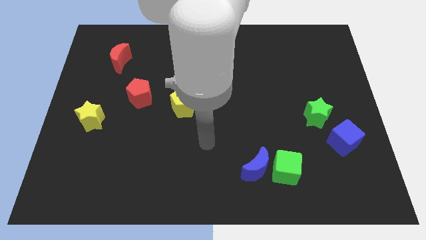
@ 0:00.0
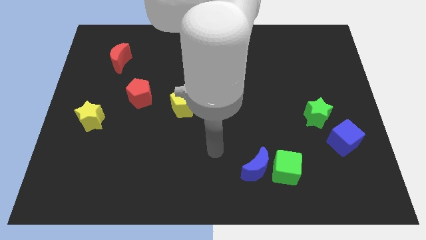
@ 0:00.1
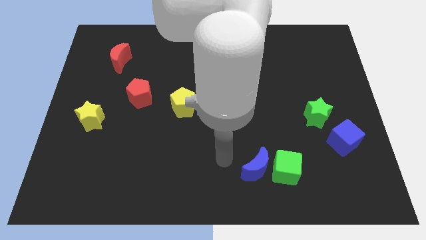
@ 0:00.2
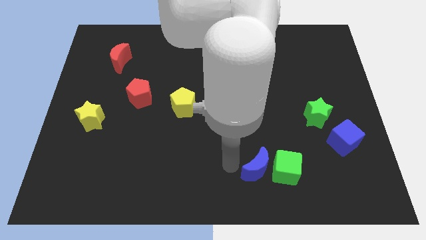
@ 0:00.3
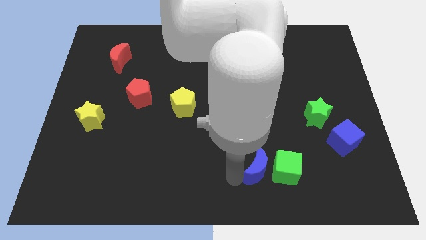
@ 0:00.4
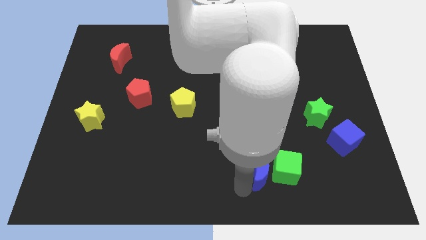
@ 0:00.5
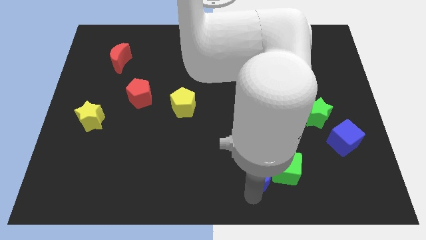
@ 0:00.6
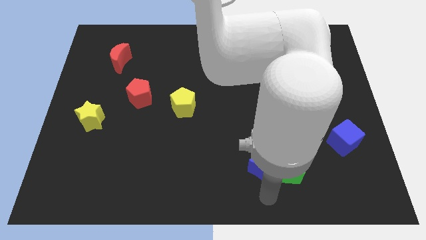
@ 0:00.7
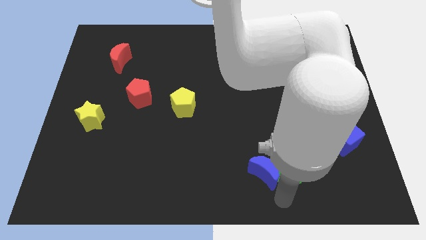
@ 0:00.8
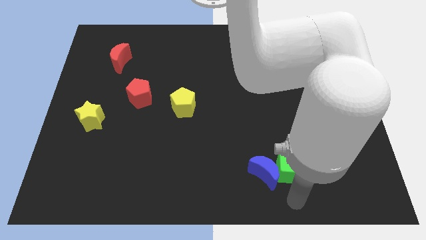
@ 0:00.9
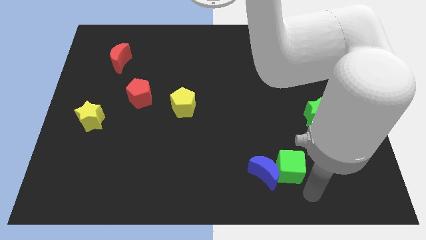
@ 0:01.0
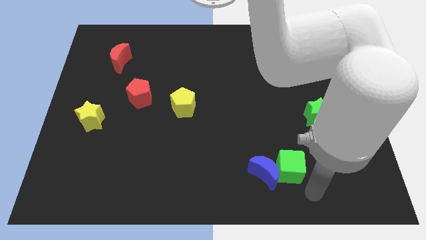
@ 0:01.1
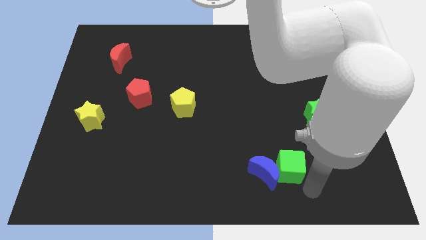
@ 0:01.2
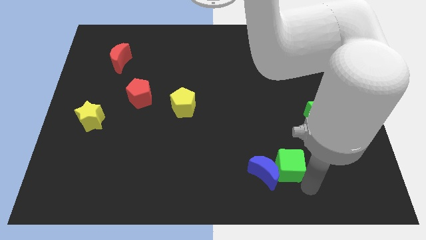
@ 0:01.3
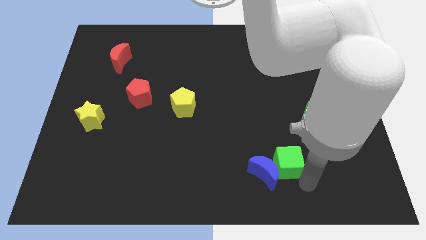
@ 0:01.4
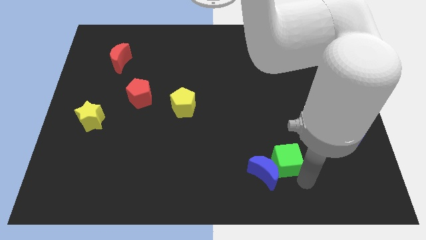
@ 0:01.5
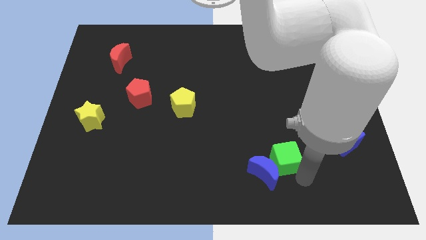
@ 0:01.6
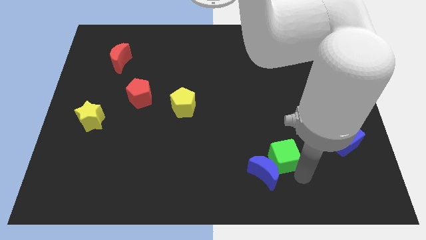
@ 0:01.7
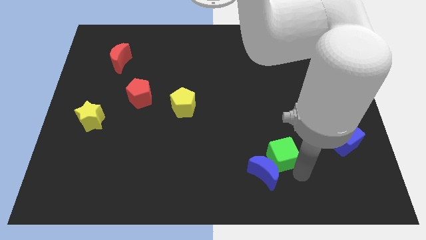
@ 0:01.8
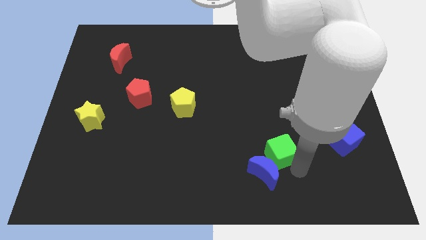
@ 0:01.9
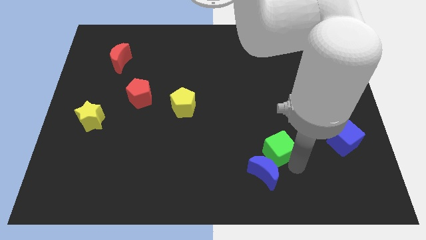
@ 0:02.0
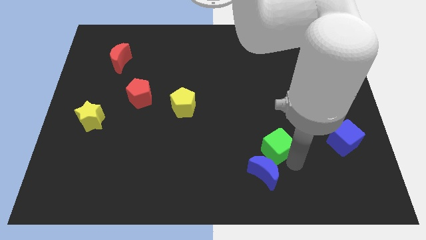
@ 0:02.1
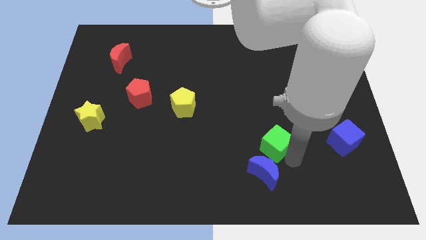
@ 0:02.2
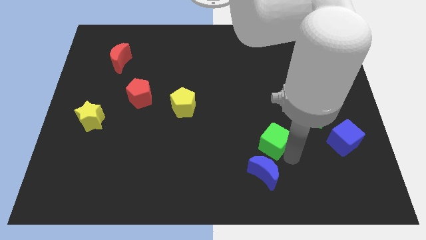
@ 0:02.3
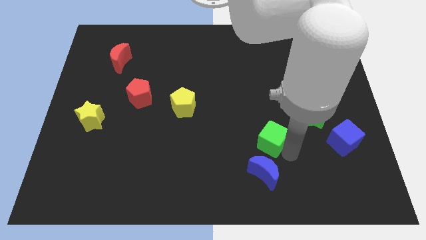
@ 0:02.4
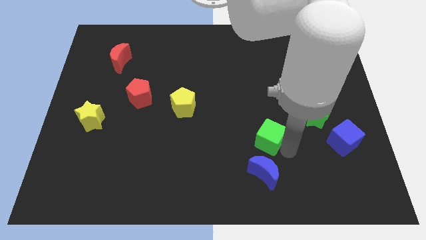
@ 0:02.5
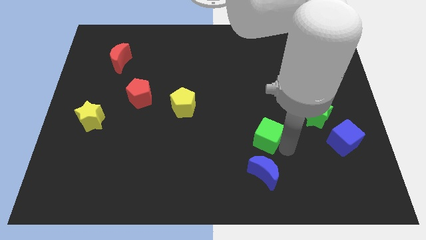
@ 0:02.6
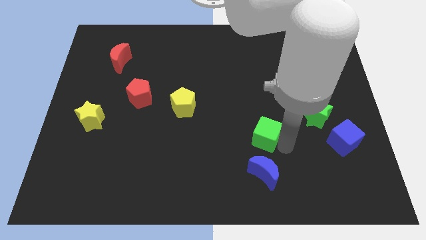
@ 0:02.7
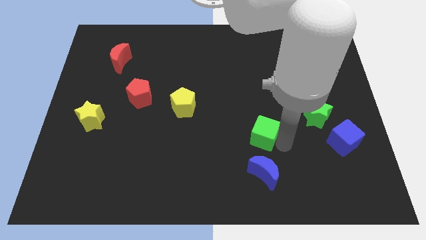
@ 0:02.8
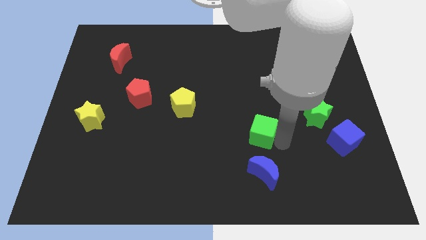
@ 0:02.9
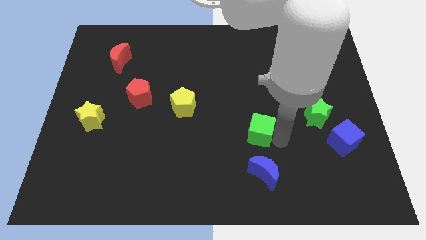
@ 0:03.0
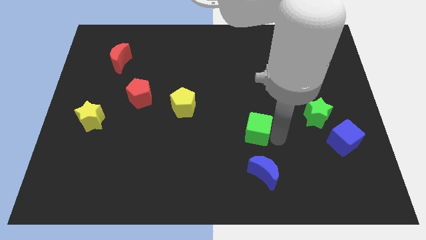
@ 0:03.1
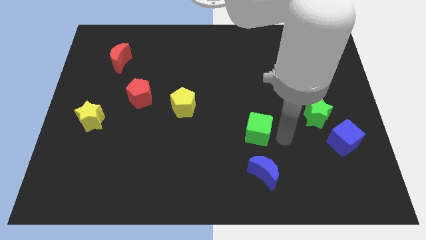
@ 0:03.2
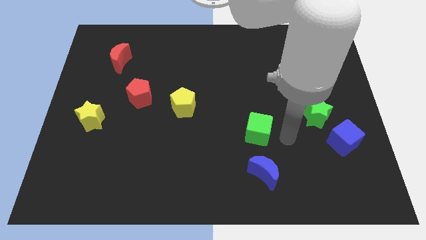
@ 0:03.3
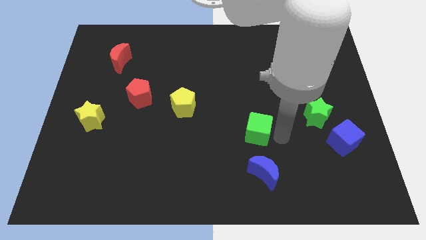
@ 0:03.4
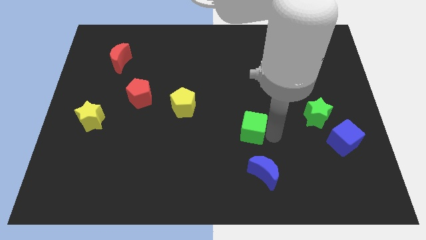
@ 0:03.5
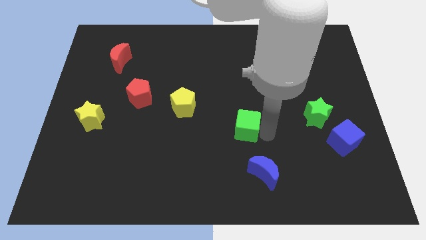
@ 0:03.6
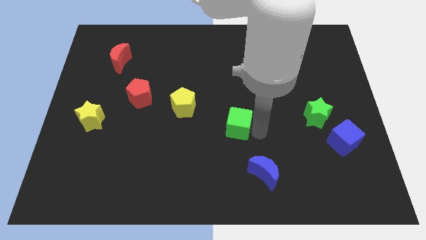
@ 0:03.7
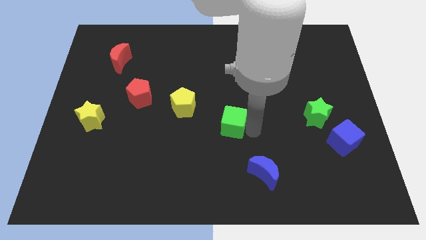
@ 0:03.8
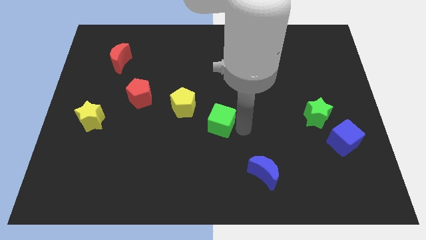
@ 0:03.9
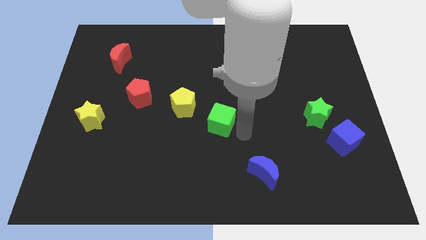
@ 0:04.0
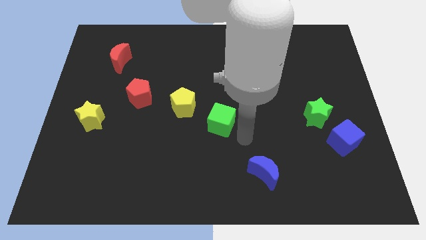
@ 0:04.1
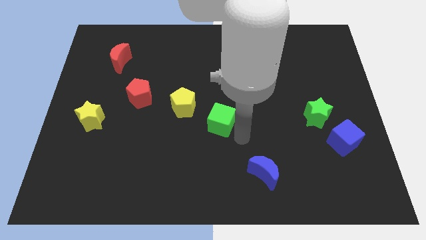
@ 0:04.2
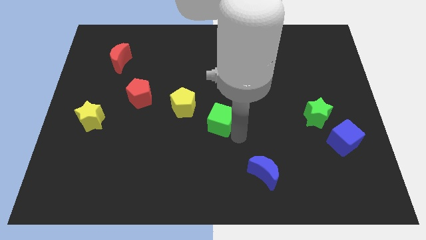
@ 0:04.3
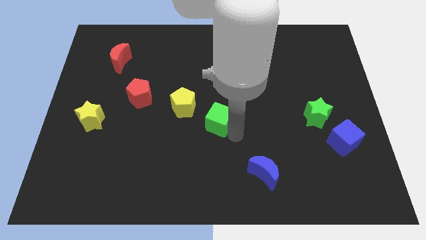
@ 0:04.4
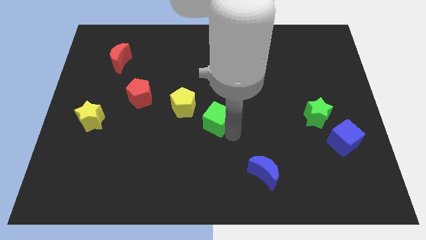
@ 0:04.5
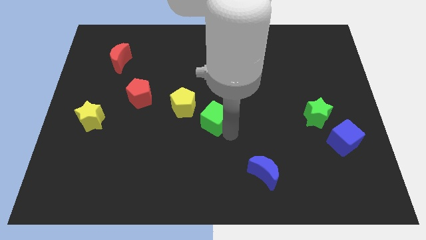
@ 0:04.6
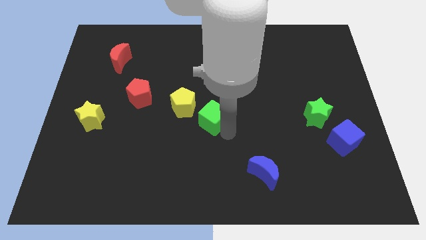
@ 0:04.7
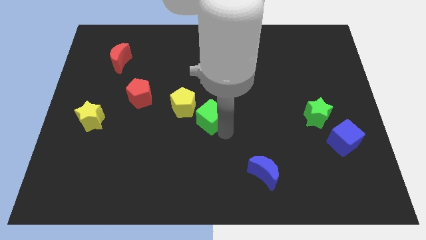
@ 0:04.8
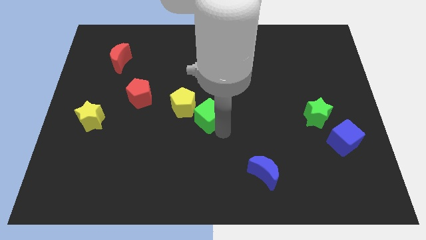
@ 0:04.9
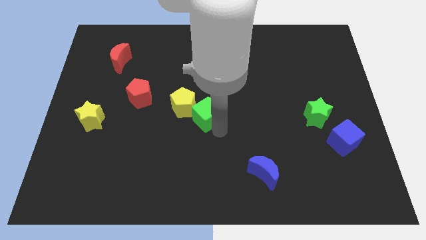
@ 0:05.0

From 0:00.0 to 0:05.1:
move the green cube next to the yellow pentagon

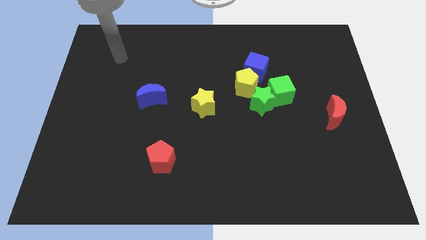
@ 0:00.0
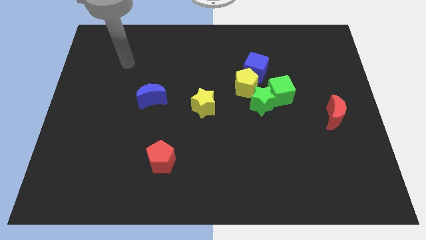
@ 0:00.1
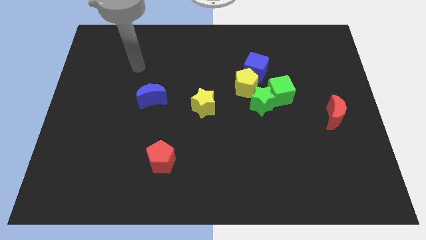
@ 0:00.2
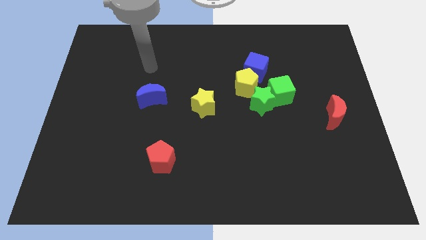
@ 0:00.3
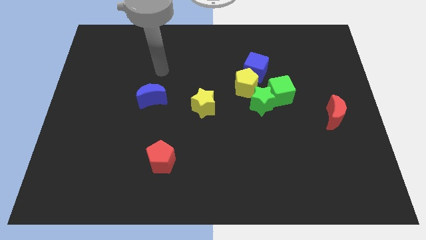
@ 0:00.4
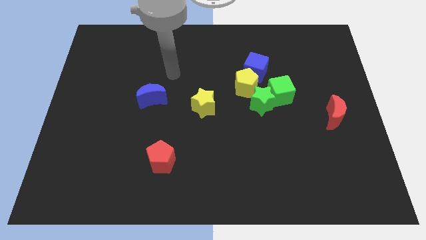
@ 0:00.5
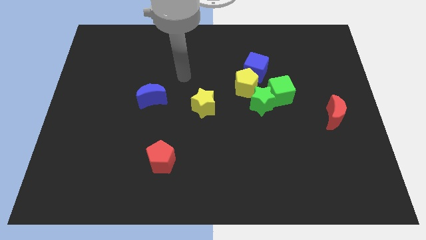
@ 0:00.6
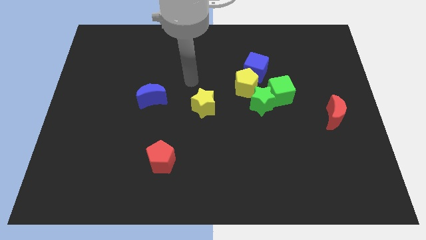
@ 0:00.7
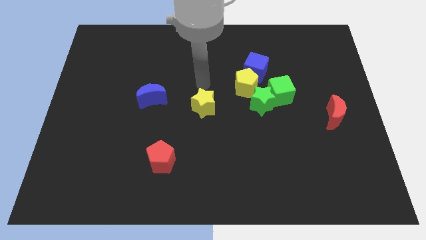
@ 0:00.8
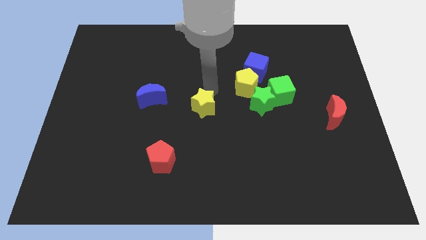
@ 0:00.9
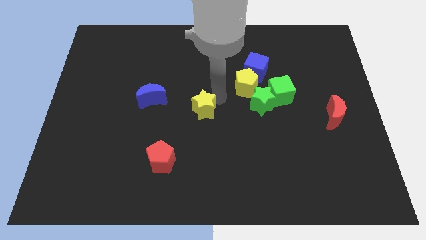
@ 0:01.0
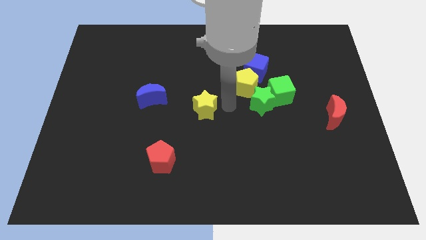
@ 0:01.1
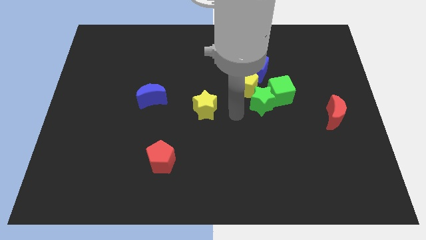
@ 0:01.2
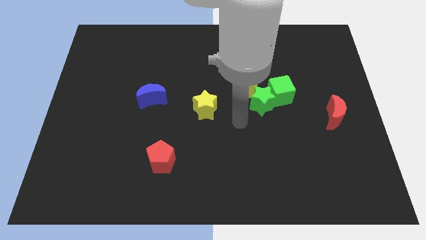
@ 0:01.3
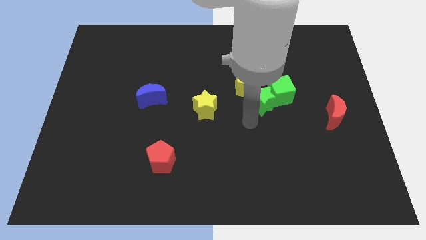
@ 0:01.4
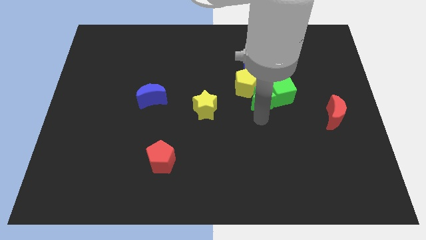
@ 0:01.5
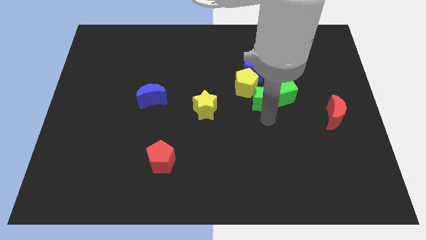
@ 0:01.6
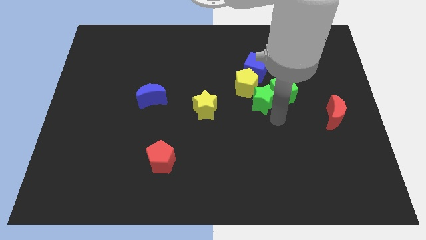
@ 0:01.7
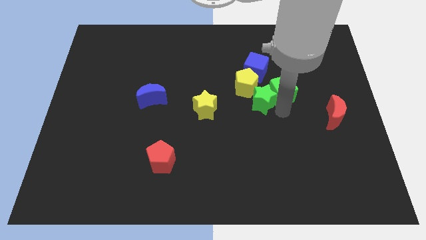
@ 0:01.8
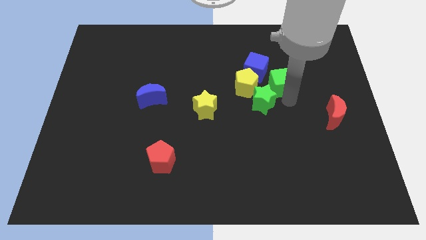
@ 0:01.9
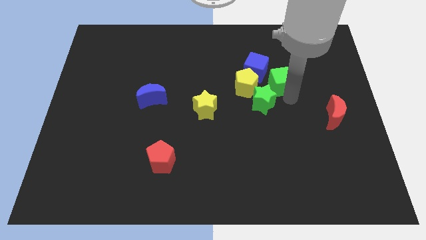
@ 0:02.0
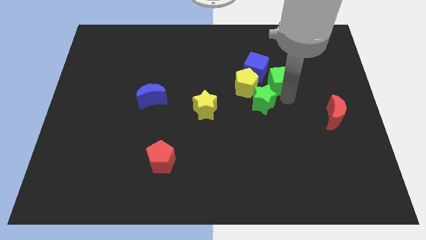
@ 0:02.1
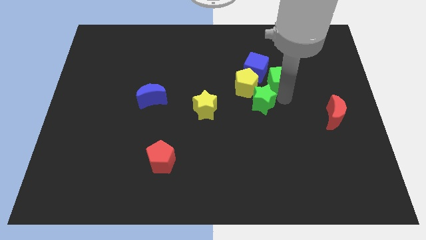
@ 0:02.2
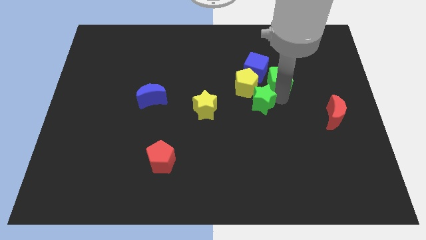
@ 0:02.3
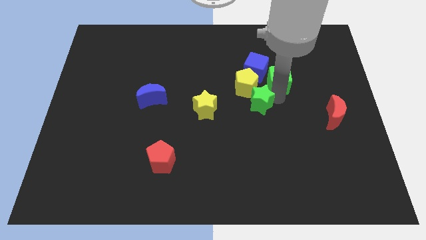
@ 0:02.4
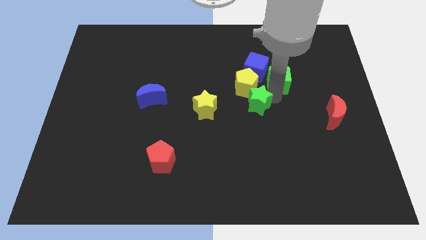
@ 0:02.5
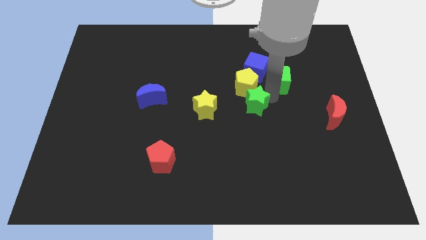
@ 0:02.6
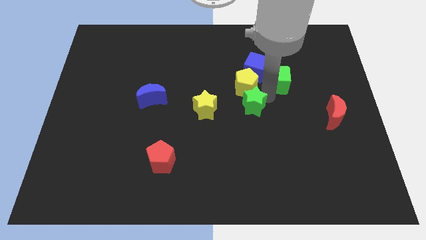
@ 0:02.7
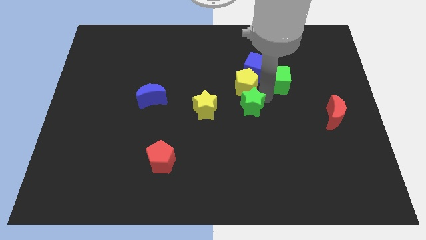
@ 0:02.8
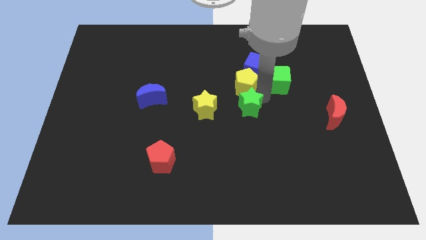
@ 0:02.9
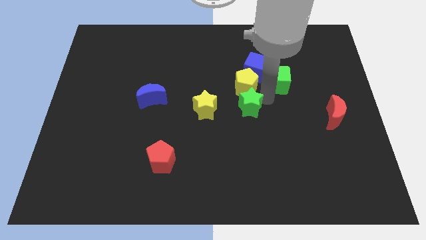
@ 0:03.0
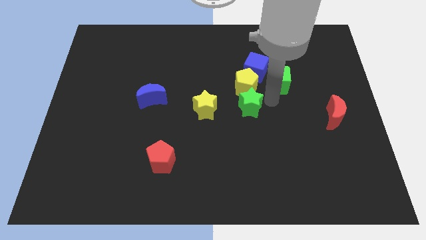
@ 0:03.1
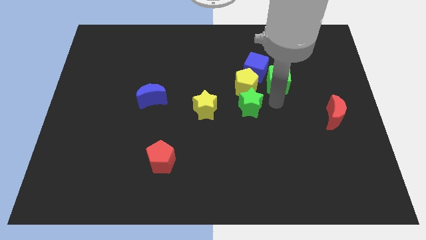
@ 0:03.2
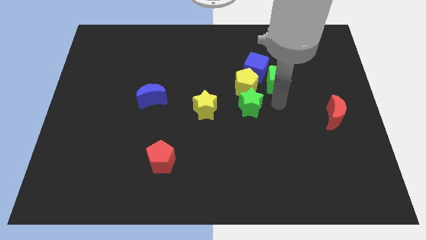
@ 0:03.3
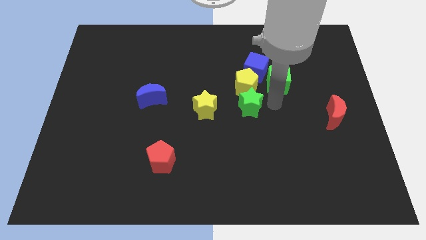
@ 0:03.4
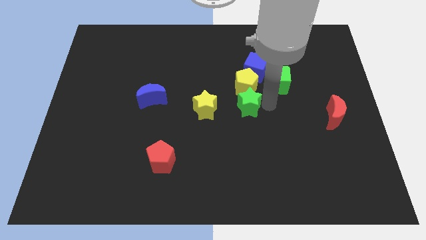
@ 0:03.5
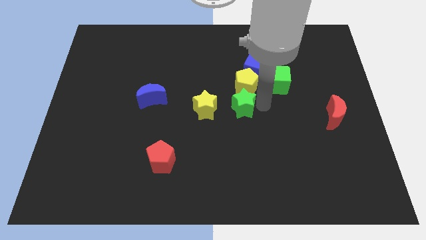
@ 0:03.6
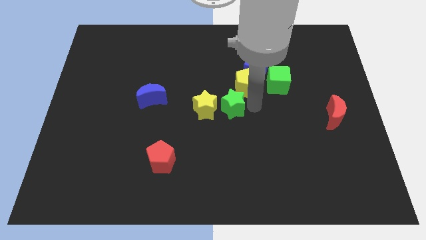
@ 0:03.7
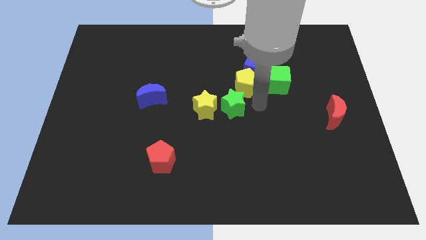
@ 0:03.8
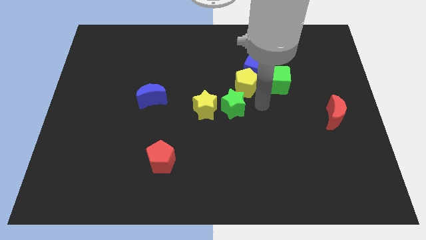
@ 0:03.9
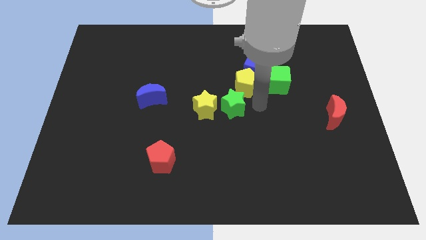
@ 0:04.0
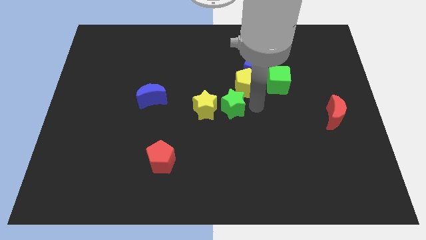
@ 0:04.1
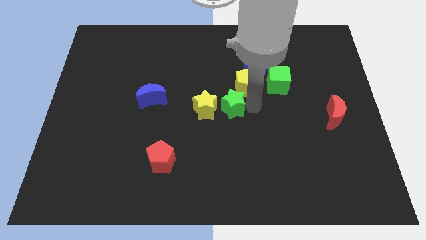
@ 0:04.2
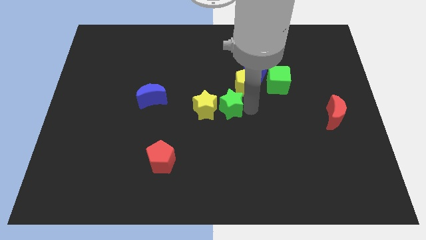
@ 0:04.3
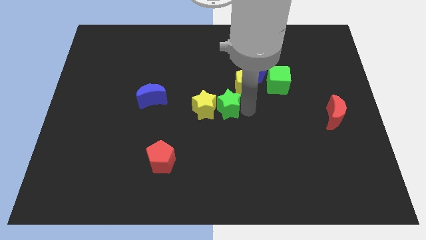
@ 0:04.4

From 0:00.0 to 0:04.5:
put the green star to the yellow star
